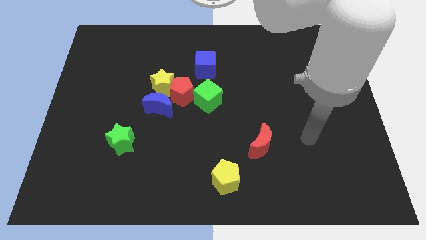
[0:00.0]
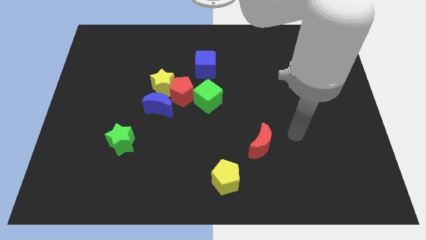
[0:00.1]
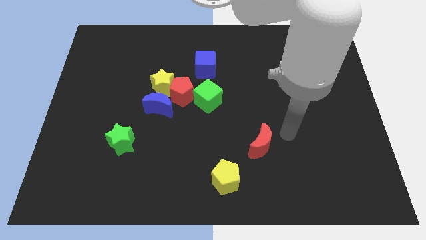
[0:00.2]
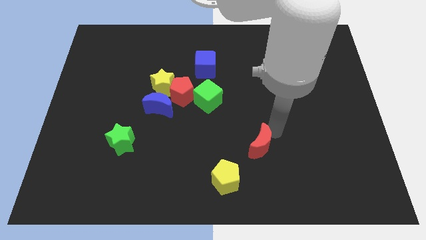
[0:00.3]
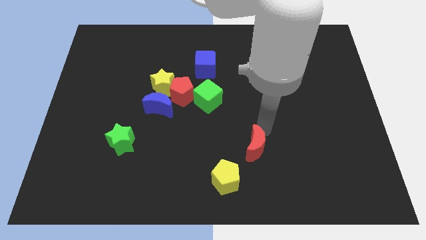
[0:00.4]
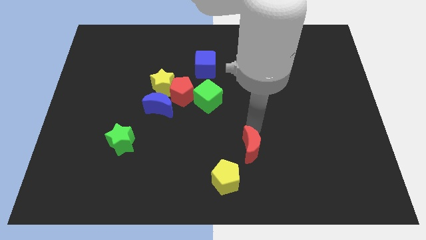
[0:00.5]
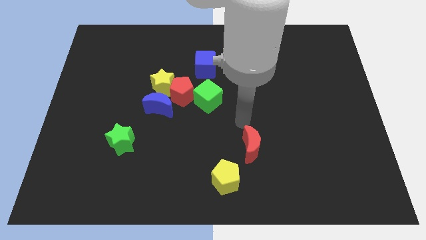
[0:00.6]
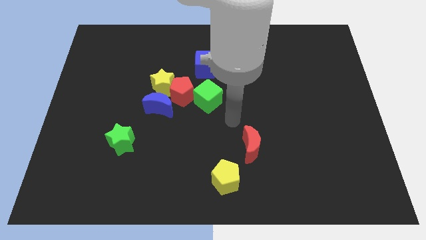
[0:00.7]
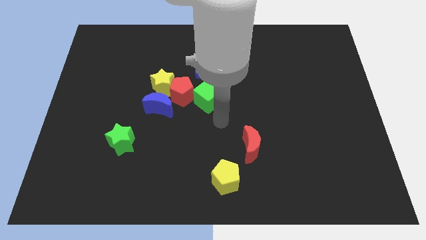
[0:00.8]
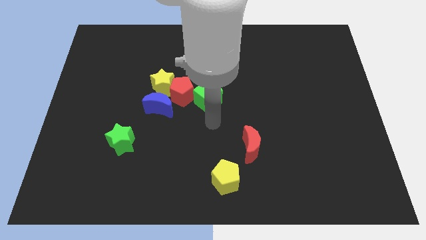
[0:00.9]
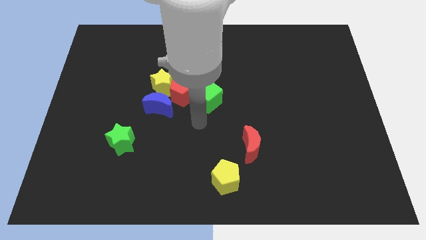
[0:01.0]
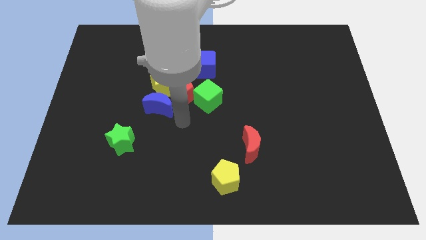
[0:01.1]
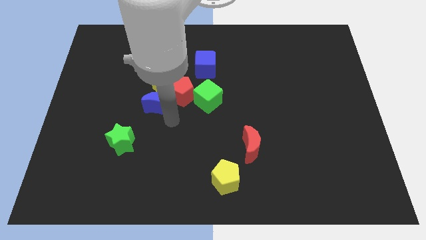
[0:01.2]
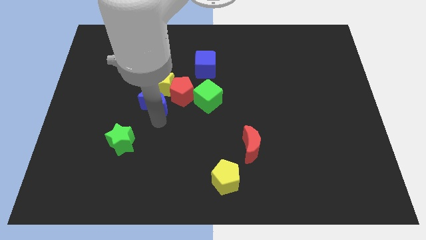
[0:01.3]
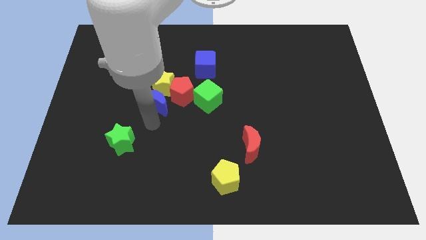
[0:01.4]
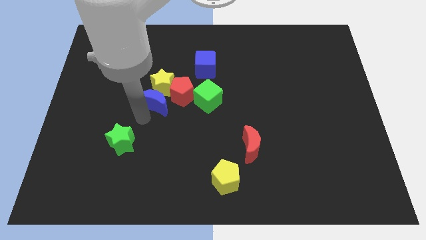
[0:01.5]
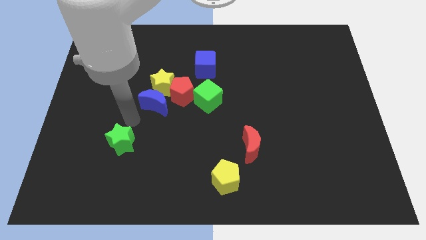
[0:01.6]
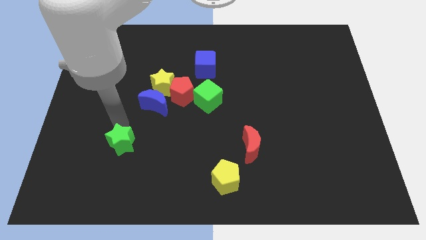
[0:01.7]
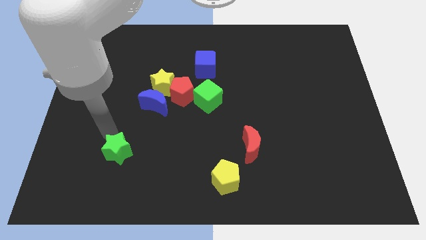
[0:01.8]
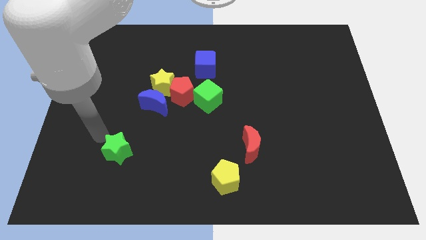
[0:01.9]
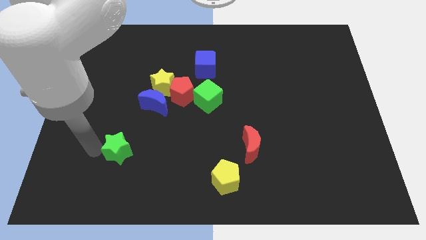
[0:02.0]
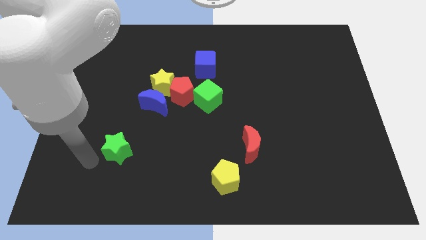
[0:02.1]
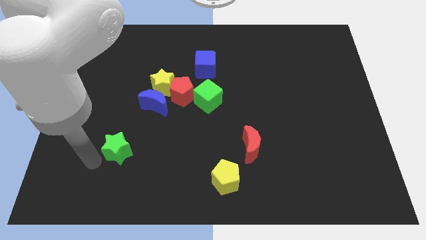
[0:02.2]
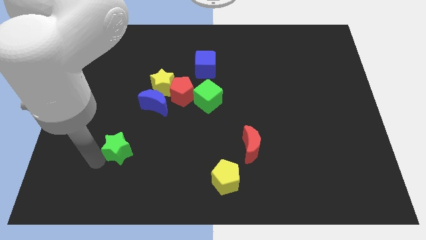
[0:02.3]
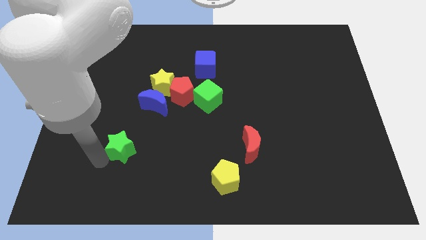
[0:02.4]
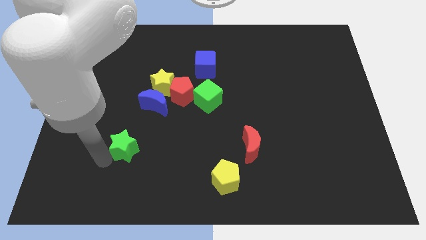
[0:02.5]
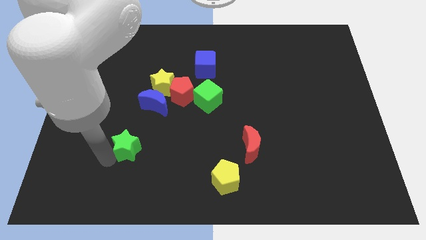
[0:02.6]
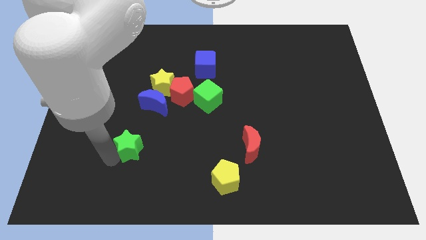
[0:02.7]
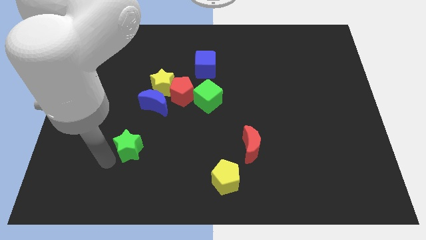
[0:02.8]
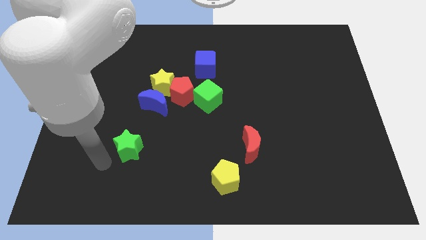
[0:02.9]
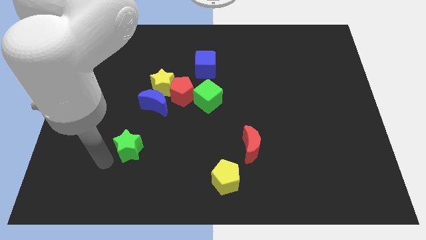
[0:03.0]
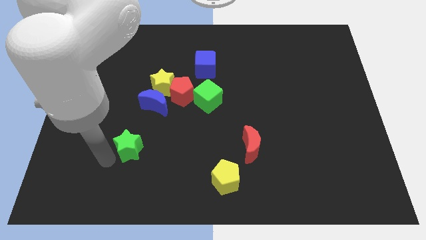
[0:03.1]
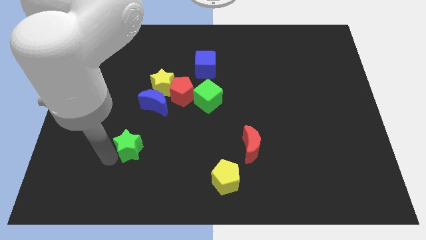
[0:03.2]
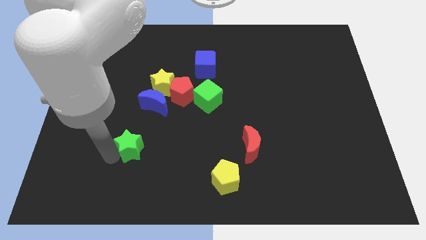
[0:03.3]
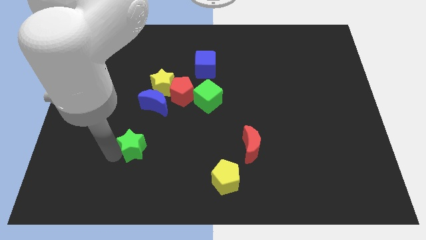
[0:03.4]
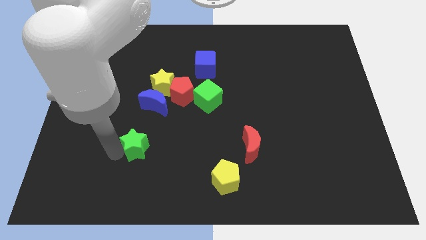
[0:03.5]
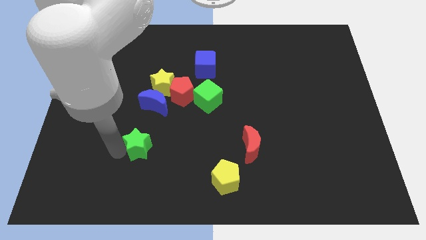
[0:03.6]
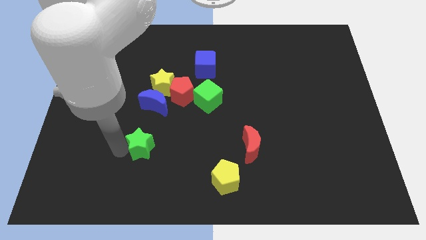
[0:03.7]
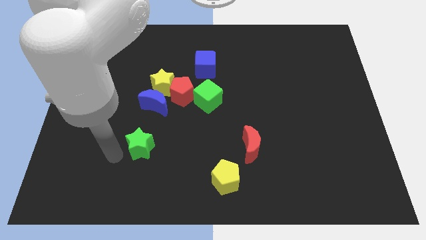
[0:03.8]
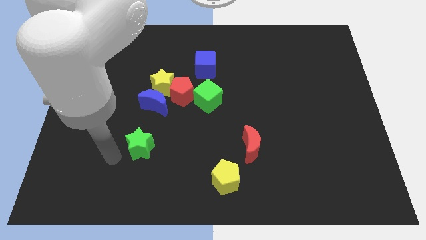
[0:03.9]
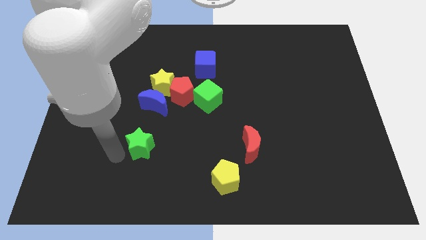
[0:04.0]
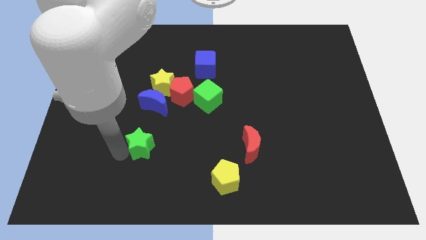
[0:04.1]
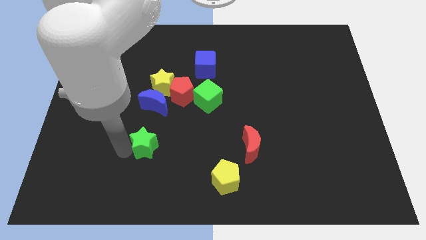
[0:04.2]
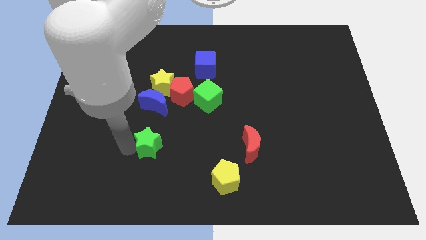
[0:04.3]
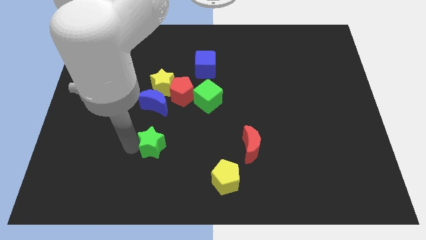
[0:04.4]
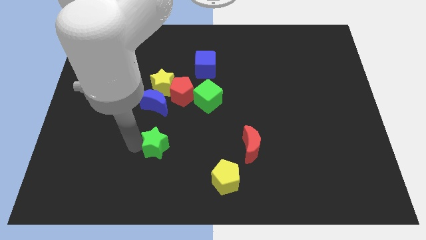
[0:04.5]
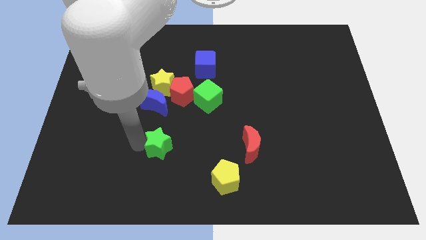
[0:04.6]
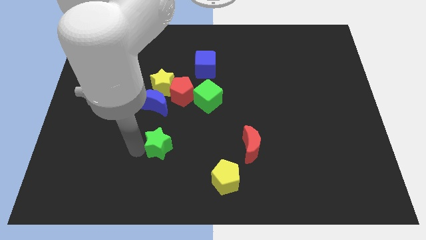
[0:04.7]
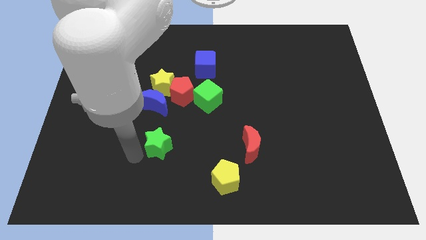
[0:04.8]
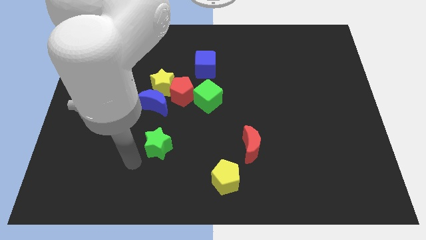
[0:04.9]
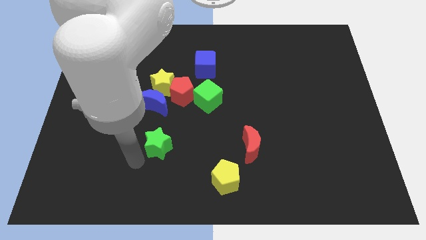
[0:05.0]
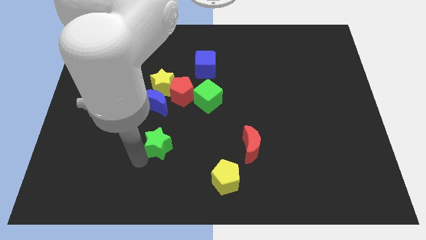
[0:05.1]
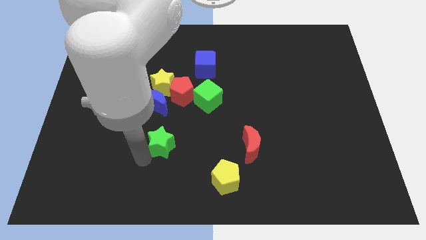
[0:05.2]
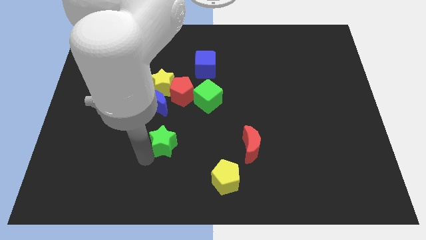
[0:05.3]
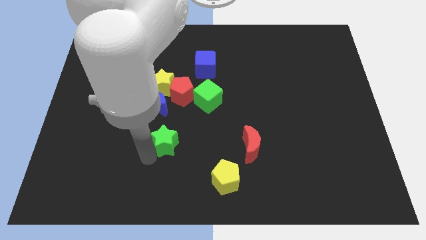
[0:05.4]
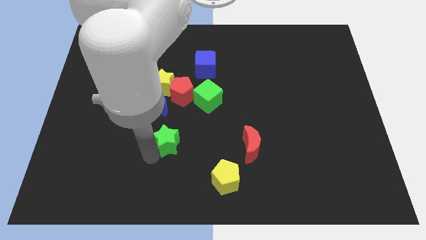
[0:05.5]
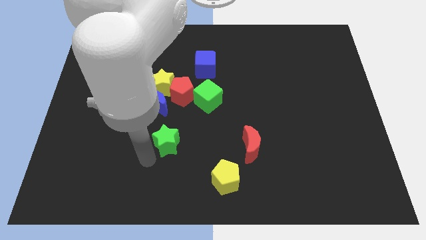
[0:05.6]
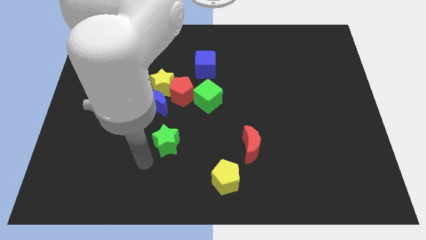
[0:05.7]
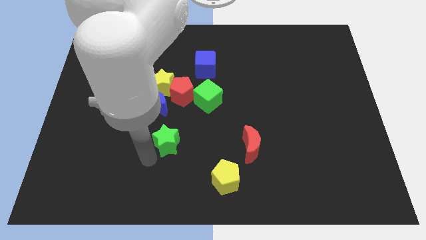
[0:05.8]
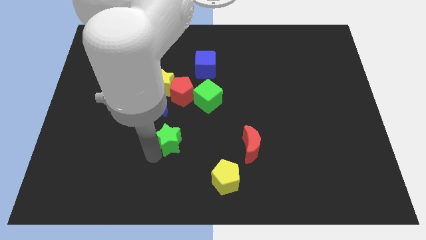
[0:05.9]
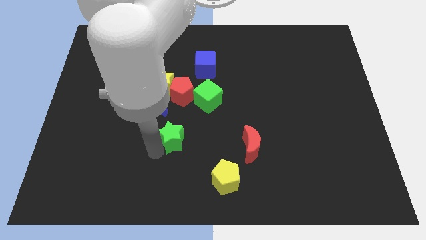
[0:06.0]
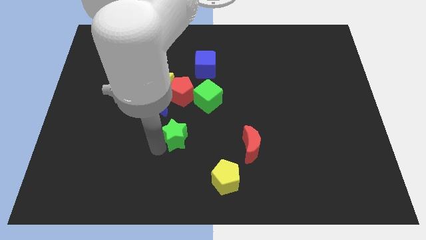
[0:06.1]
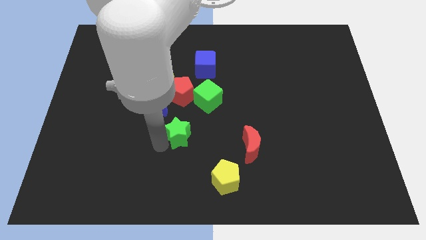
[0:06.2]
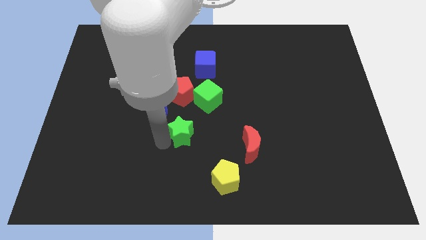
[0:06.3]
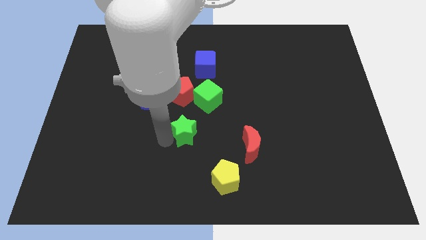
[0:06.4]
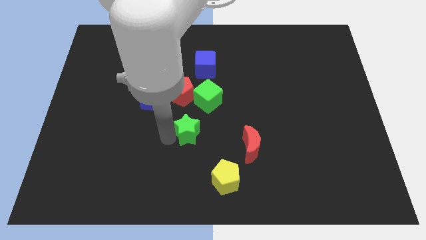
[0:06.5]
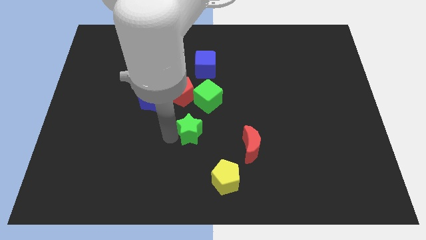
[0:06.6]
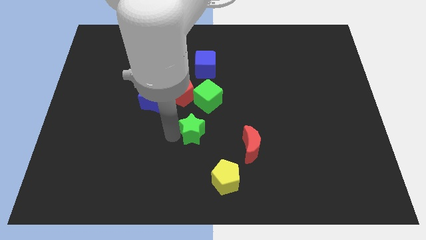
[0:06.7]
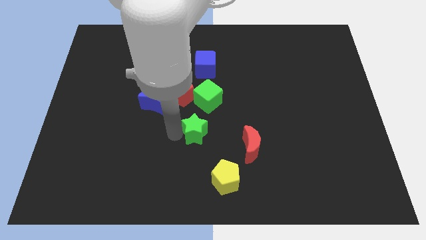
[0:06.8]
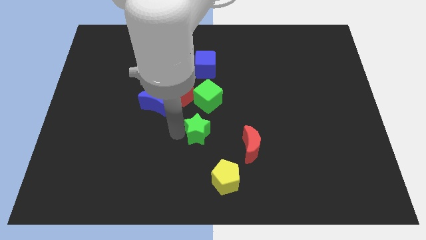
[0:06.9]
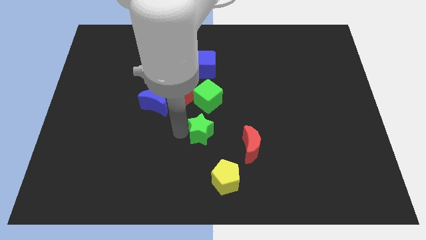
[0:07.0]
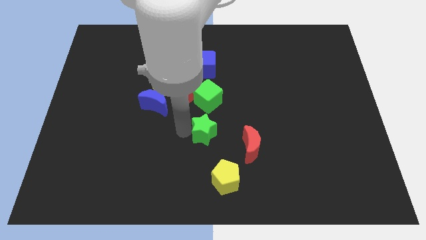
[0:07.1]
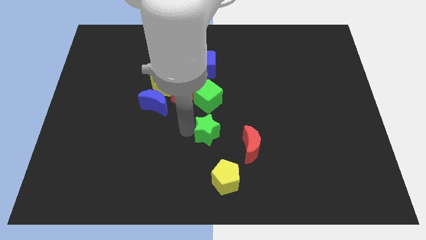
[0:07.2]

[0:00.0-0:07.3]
move the green star diagonally up and to the left of the red moon

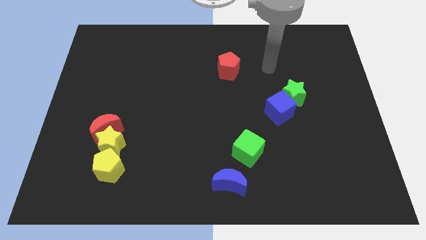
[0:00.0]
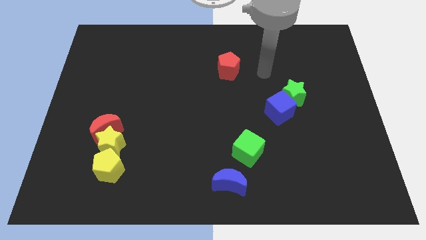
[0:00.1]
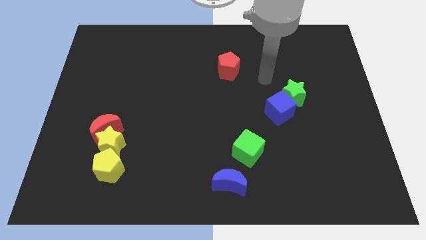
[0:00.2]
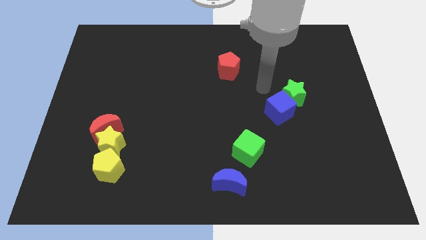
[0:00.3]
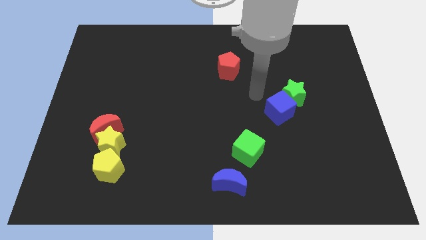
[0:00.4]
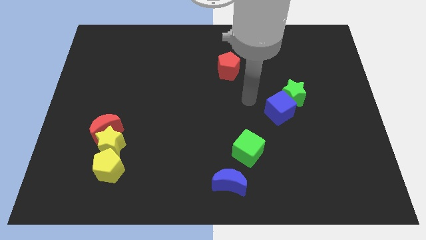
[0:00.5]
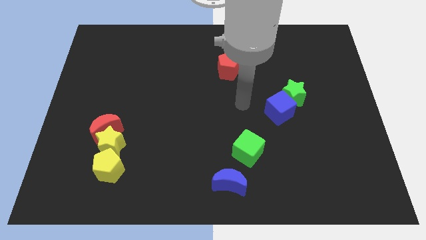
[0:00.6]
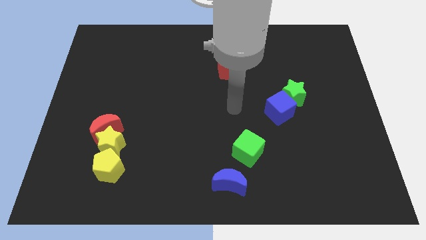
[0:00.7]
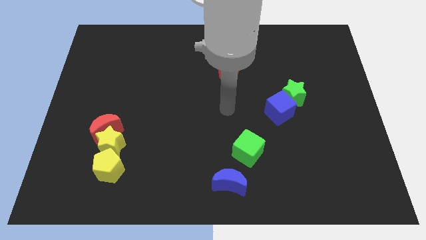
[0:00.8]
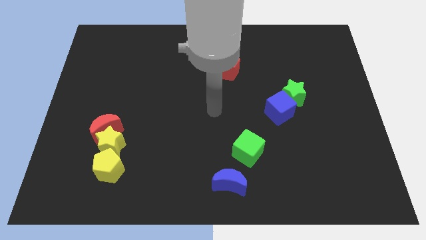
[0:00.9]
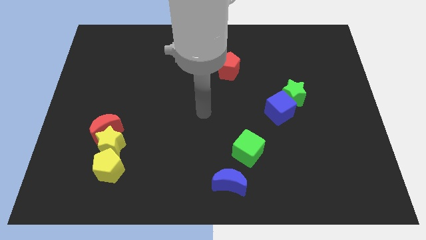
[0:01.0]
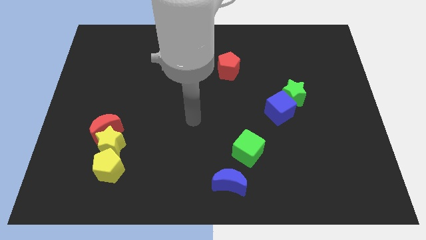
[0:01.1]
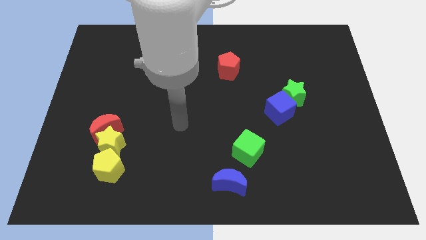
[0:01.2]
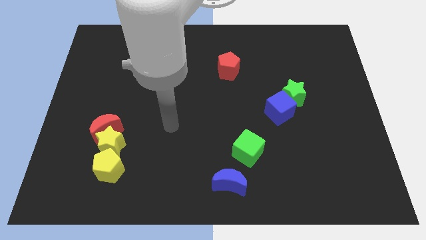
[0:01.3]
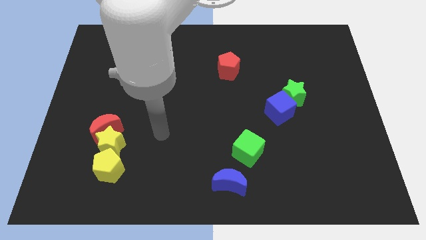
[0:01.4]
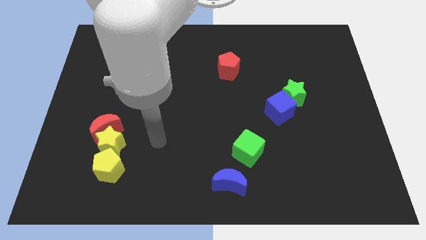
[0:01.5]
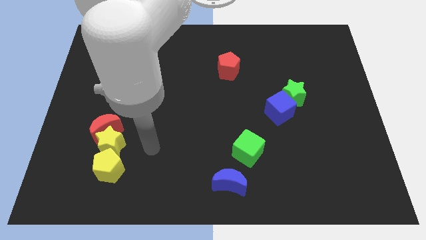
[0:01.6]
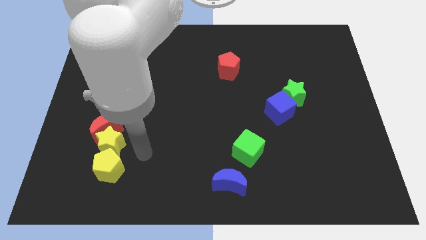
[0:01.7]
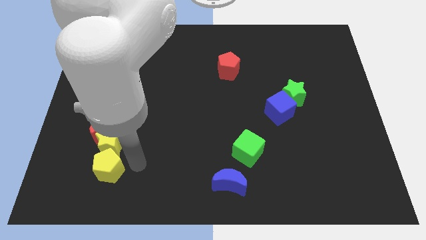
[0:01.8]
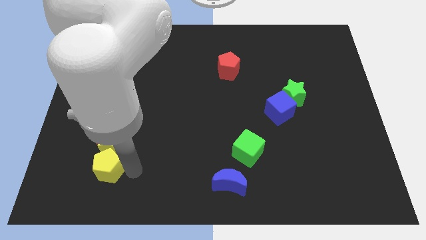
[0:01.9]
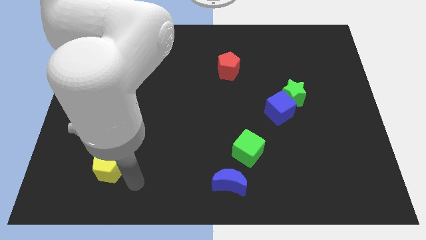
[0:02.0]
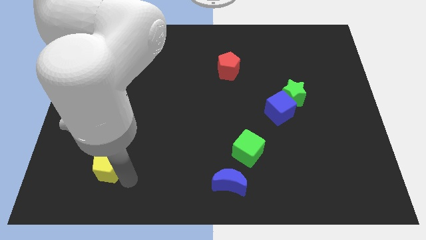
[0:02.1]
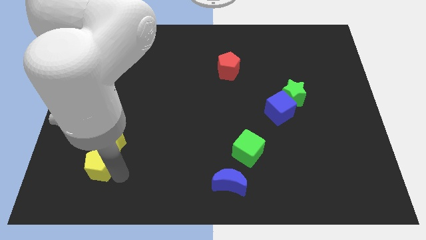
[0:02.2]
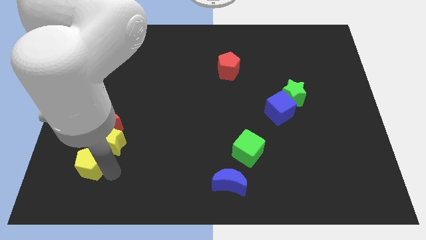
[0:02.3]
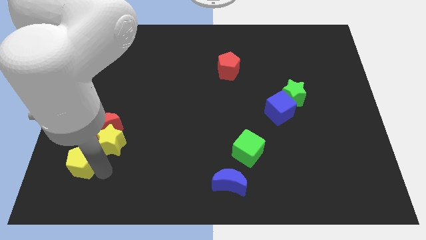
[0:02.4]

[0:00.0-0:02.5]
slide the yellow pentagon to the bottom left of the red moon
